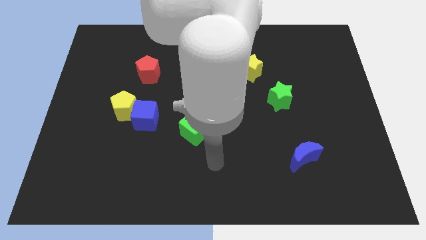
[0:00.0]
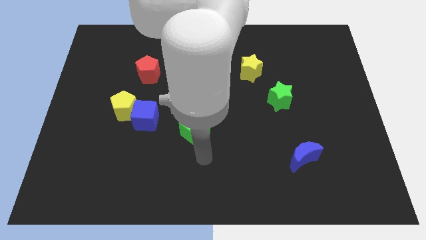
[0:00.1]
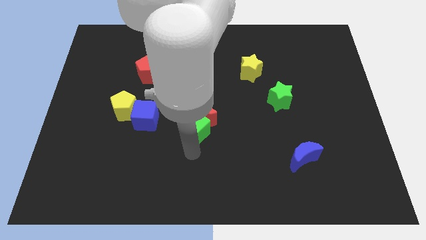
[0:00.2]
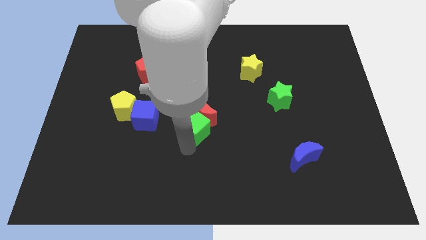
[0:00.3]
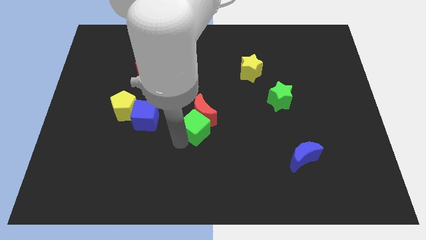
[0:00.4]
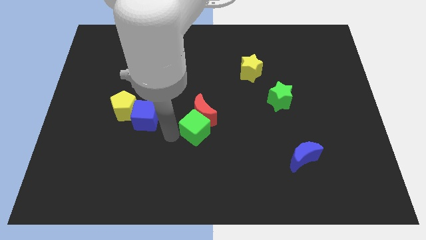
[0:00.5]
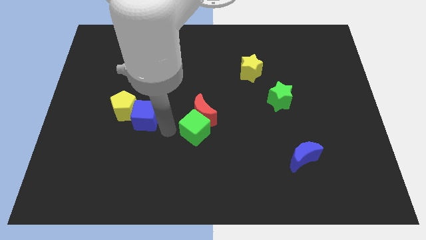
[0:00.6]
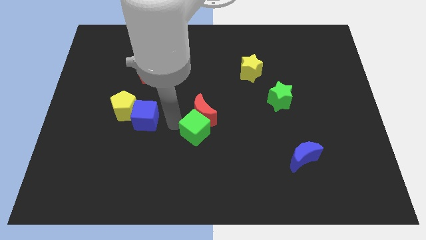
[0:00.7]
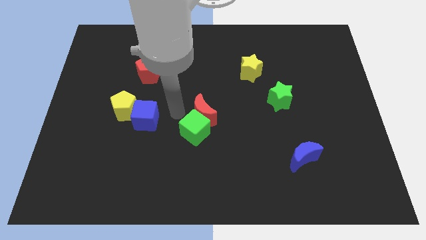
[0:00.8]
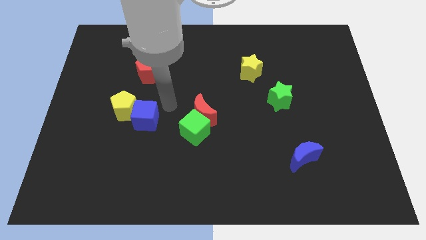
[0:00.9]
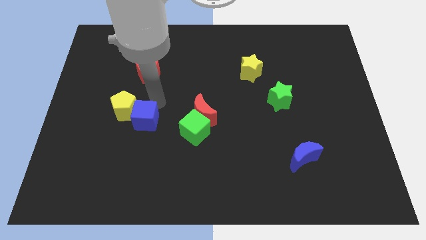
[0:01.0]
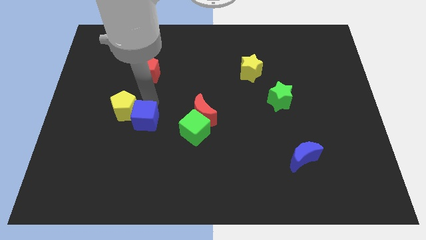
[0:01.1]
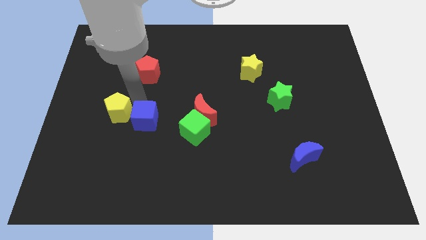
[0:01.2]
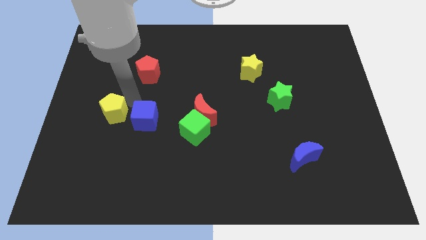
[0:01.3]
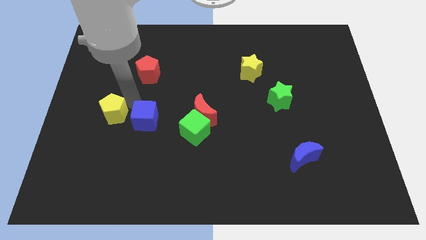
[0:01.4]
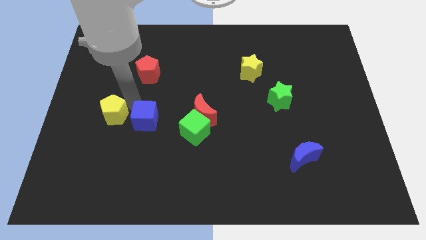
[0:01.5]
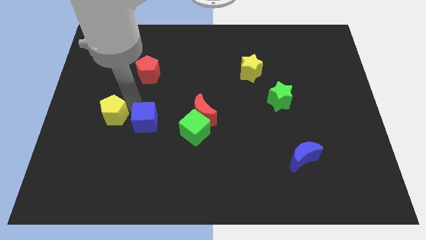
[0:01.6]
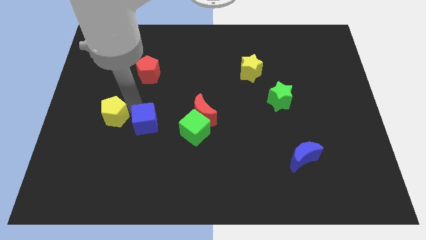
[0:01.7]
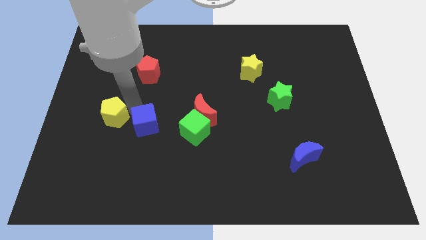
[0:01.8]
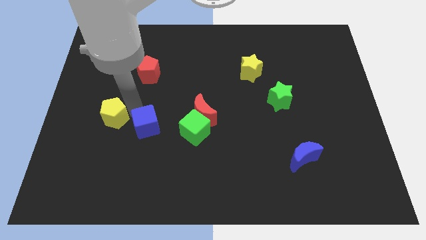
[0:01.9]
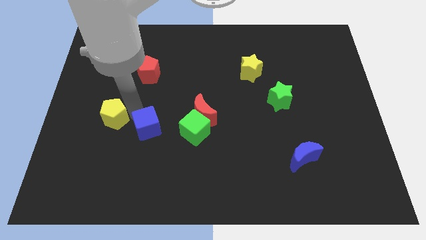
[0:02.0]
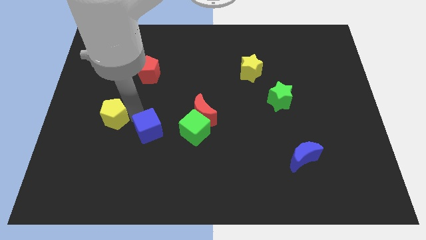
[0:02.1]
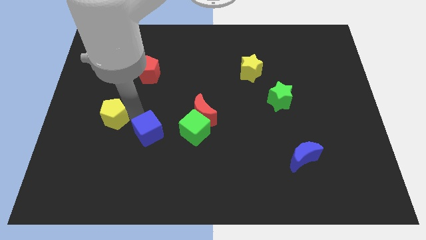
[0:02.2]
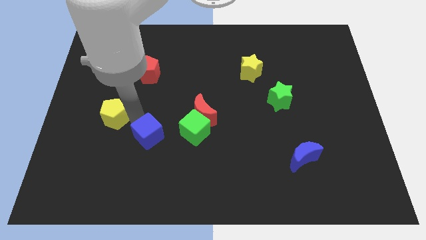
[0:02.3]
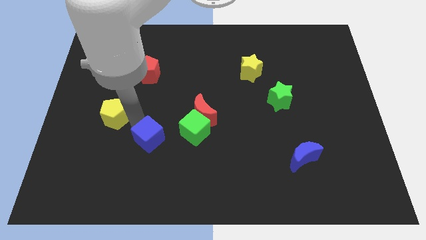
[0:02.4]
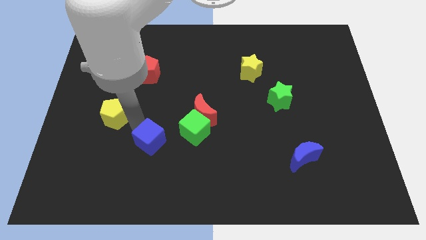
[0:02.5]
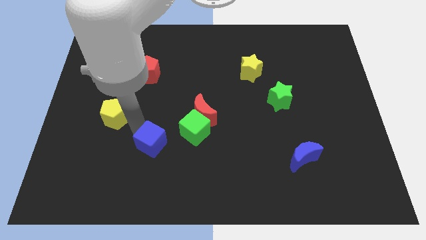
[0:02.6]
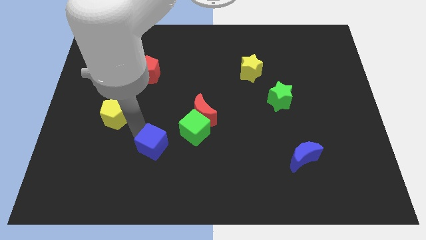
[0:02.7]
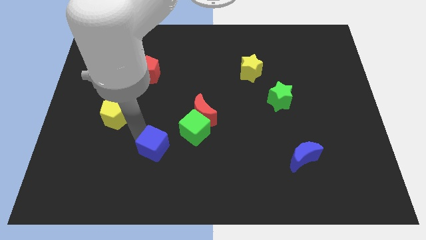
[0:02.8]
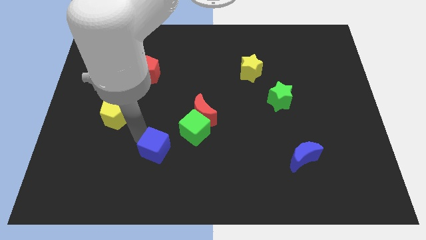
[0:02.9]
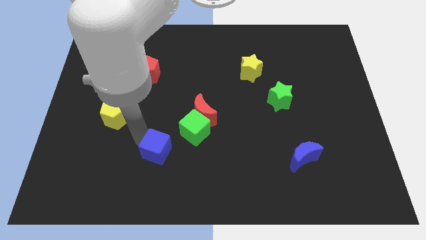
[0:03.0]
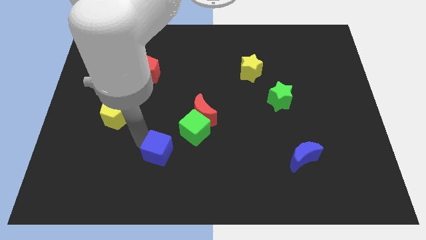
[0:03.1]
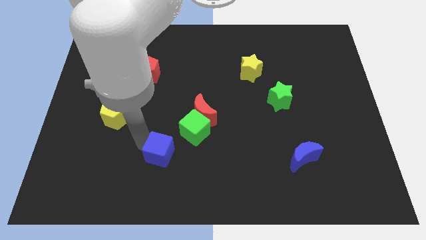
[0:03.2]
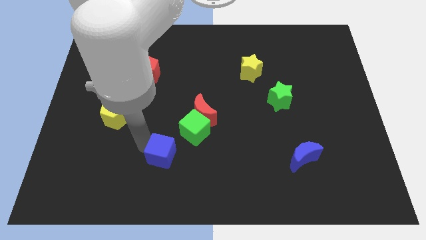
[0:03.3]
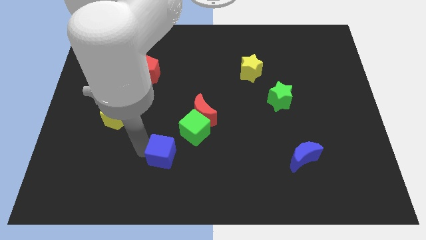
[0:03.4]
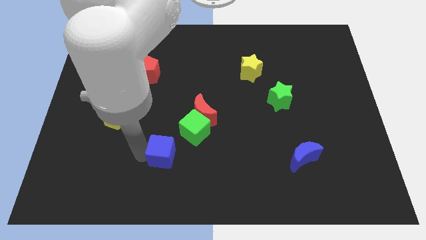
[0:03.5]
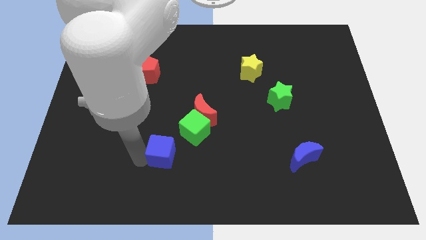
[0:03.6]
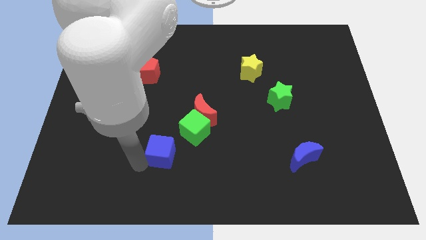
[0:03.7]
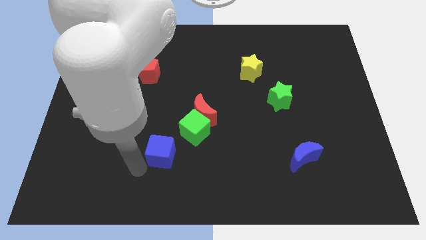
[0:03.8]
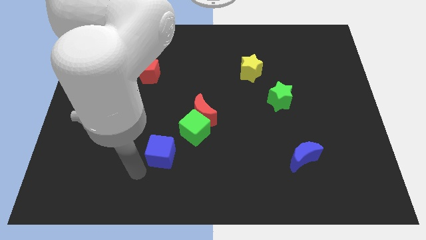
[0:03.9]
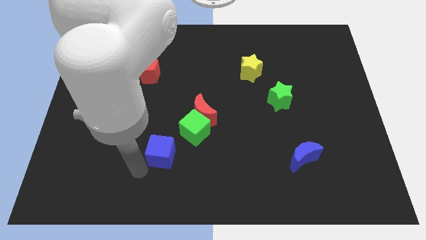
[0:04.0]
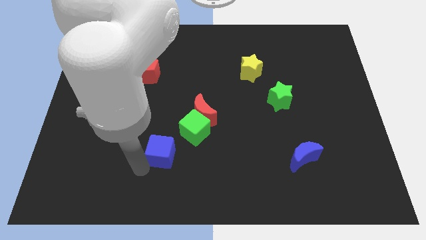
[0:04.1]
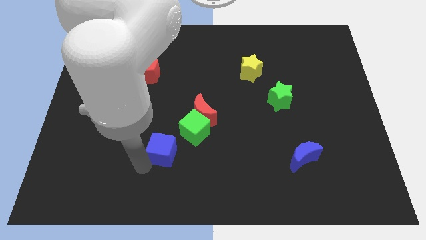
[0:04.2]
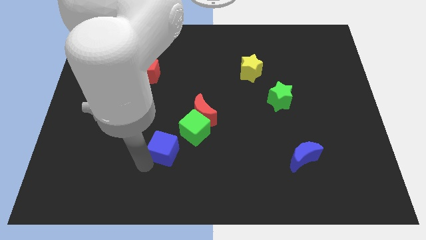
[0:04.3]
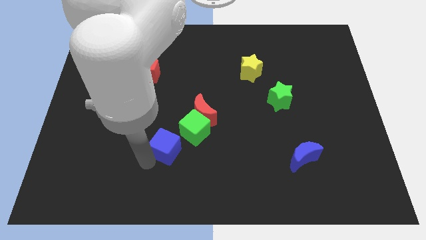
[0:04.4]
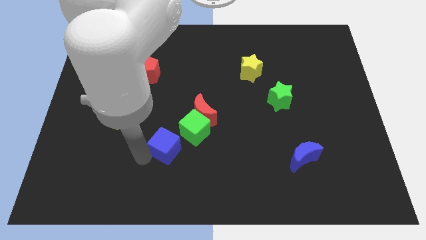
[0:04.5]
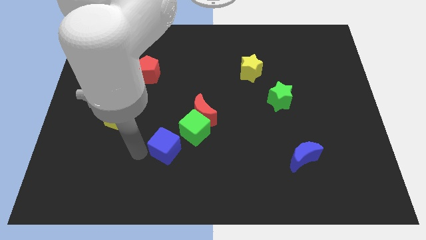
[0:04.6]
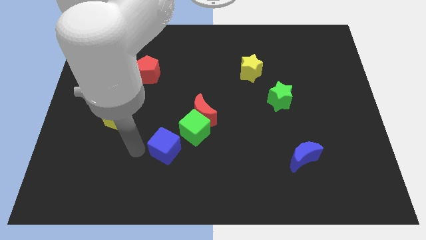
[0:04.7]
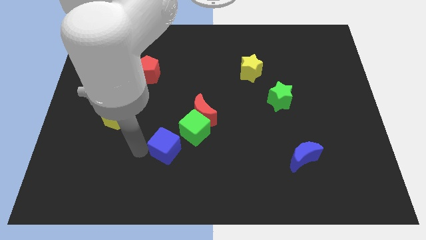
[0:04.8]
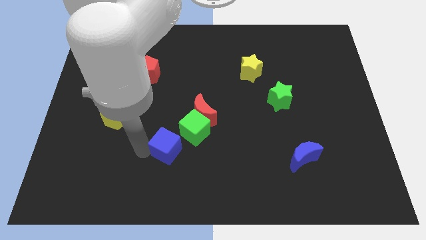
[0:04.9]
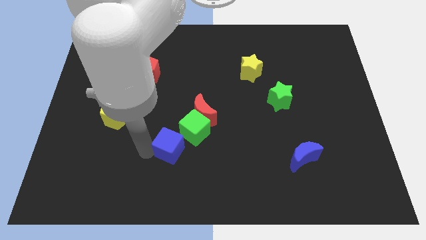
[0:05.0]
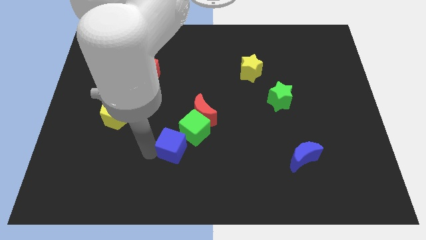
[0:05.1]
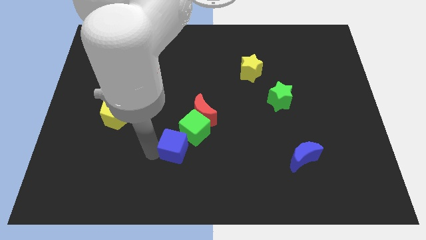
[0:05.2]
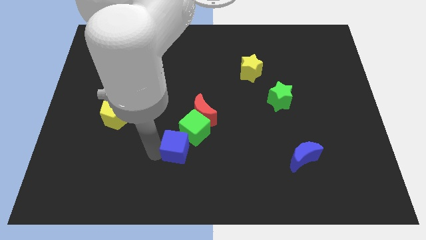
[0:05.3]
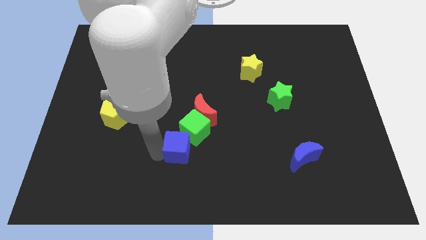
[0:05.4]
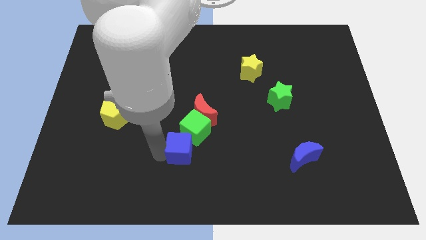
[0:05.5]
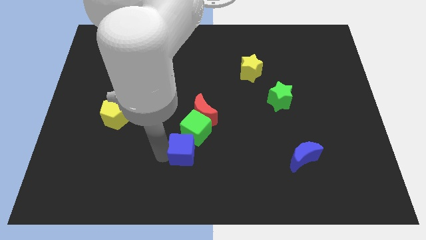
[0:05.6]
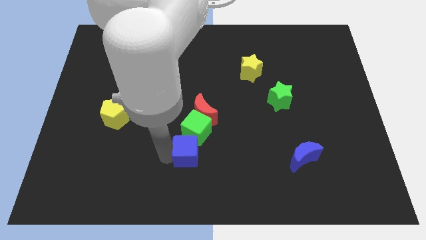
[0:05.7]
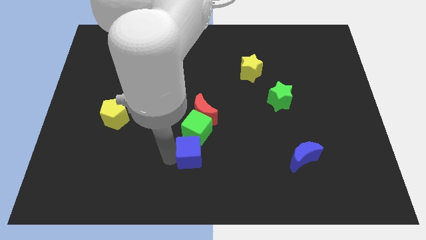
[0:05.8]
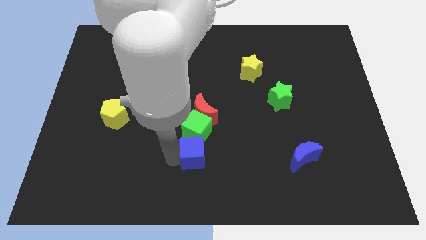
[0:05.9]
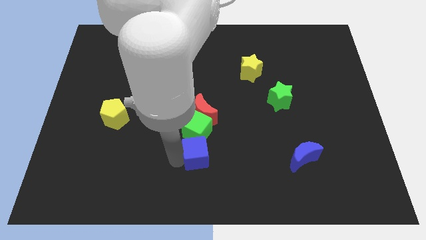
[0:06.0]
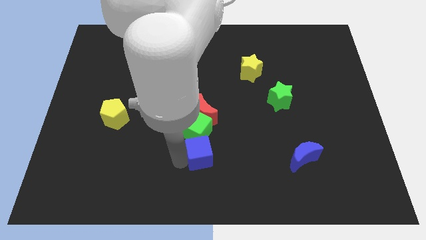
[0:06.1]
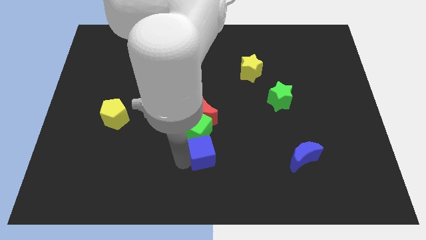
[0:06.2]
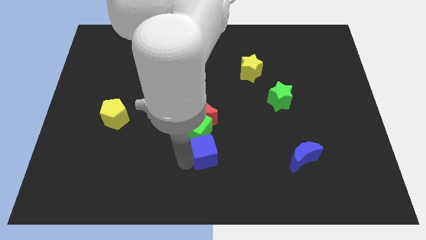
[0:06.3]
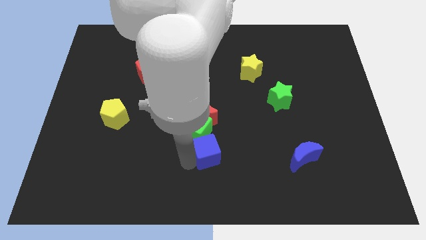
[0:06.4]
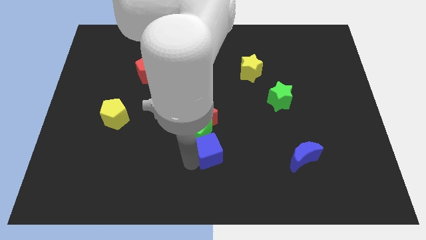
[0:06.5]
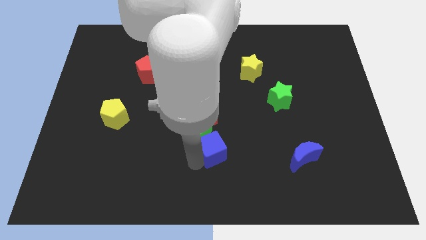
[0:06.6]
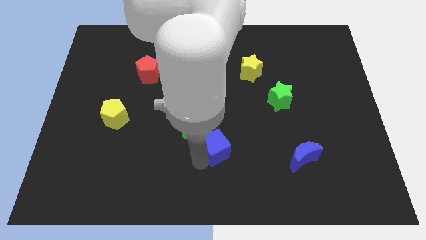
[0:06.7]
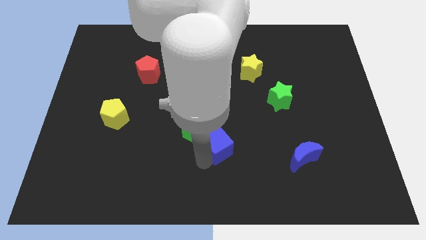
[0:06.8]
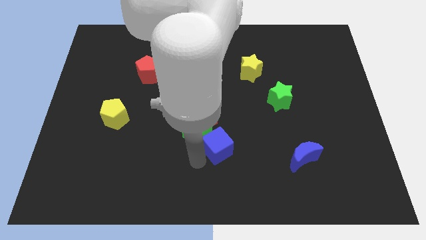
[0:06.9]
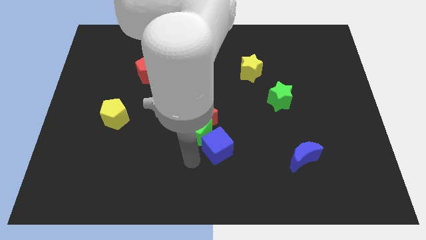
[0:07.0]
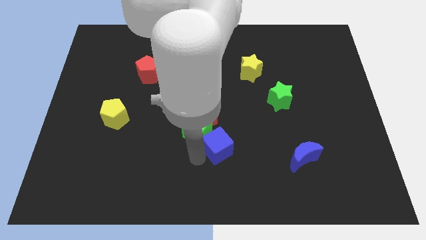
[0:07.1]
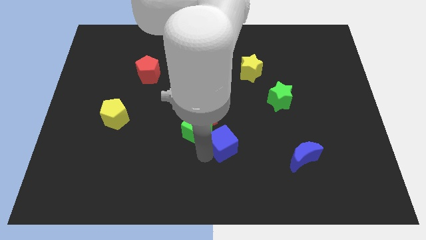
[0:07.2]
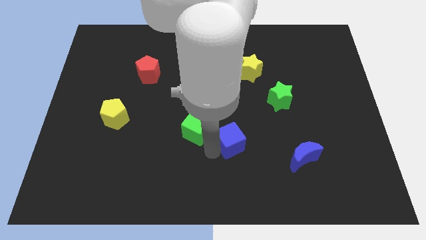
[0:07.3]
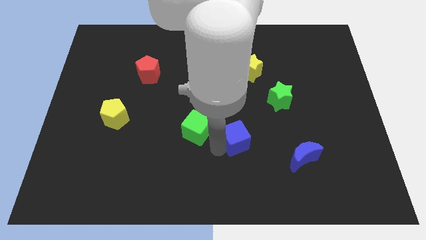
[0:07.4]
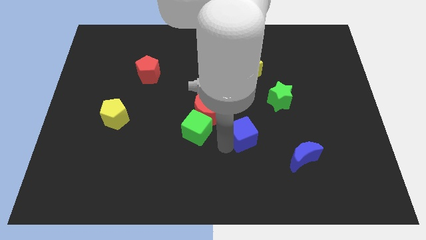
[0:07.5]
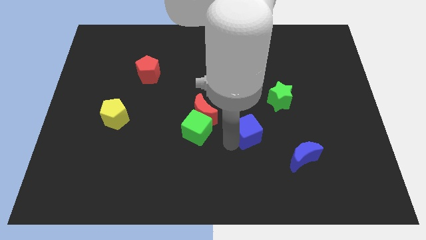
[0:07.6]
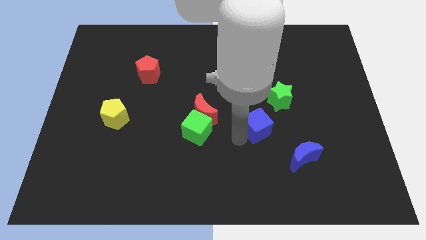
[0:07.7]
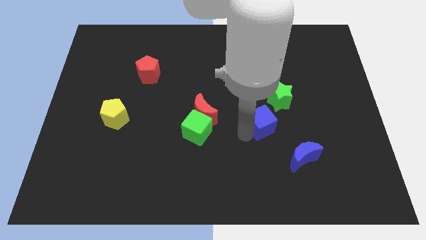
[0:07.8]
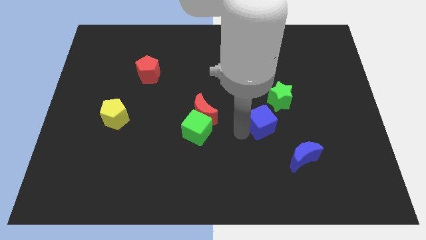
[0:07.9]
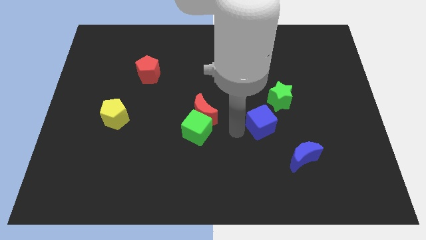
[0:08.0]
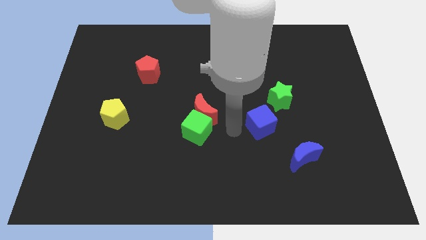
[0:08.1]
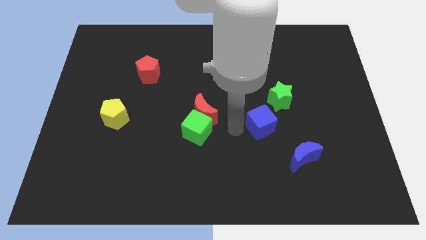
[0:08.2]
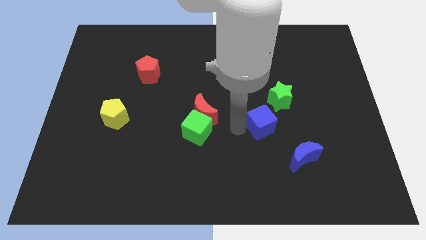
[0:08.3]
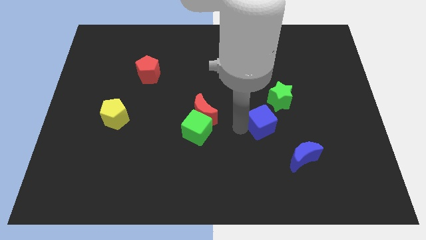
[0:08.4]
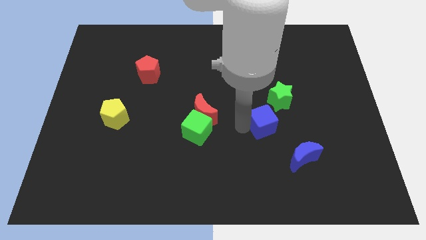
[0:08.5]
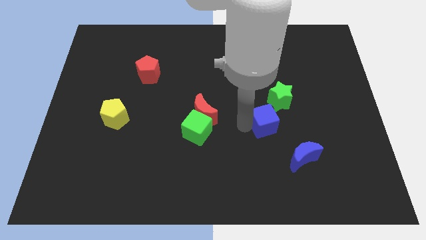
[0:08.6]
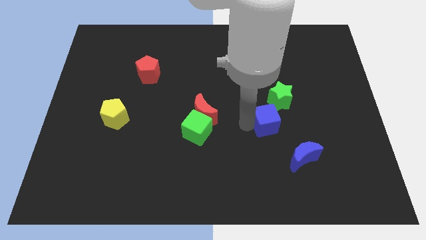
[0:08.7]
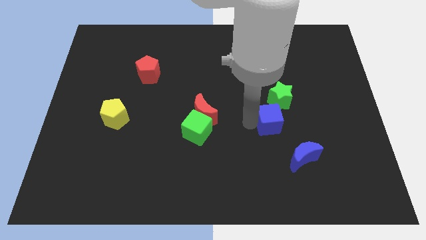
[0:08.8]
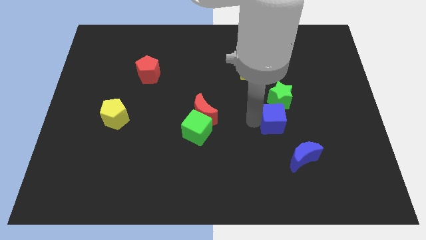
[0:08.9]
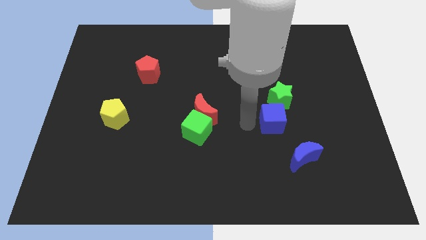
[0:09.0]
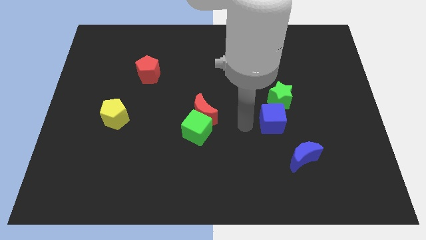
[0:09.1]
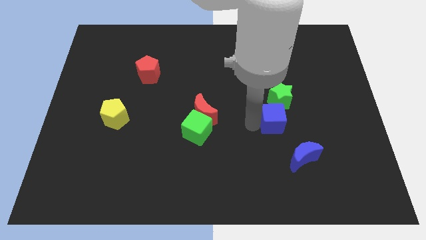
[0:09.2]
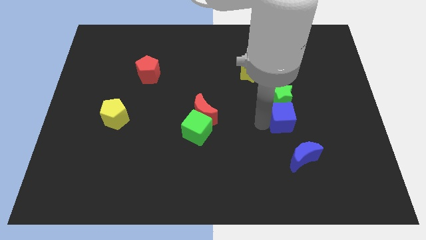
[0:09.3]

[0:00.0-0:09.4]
move the blue cube to the bottom right of the green star
